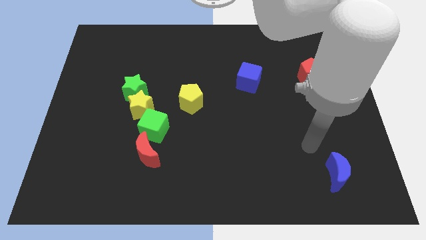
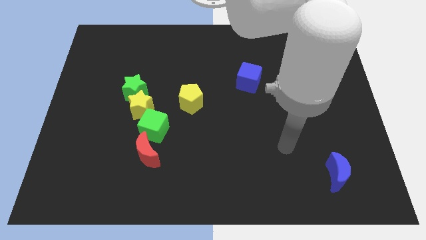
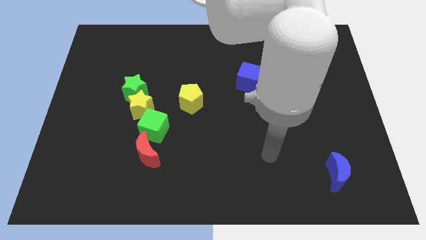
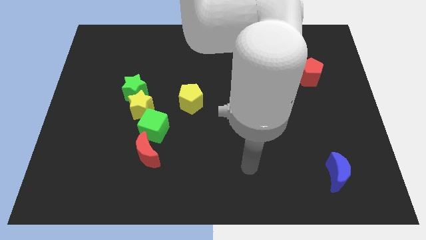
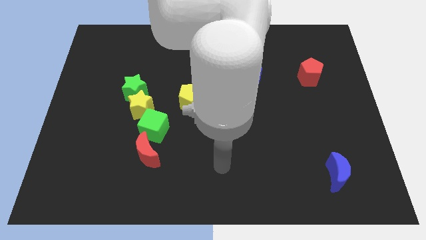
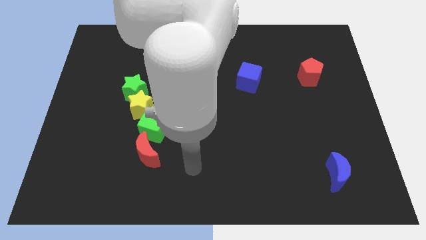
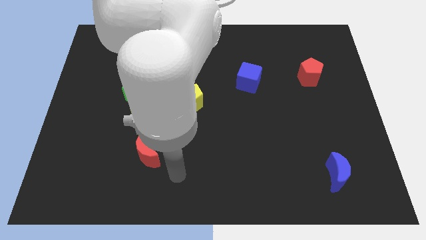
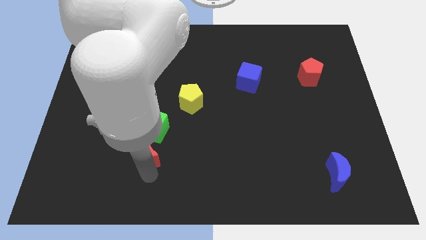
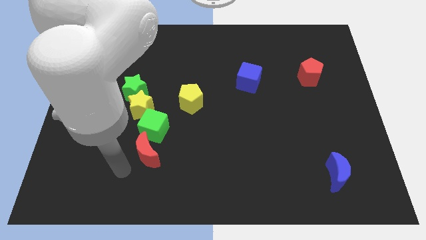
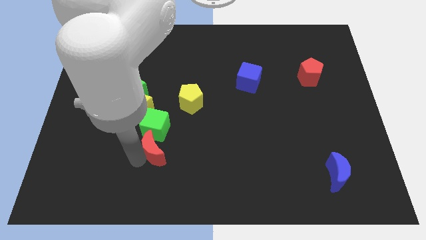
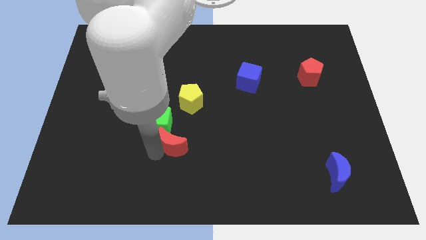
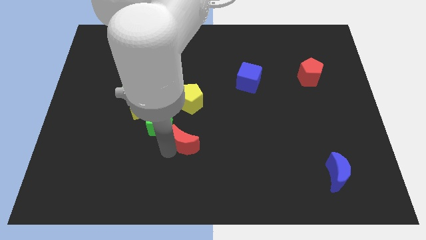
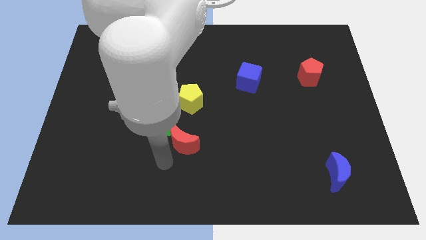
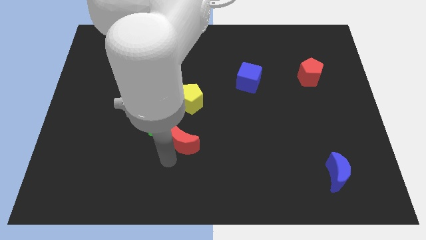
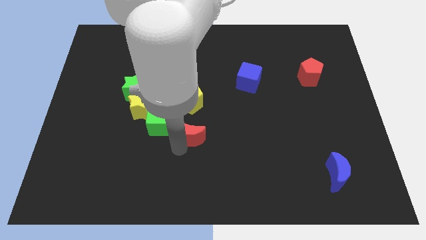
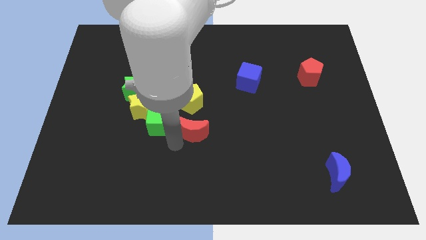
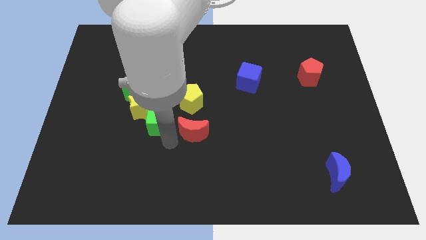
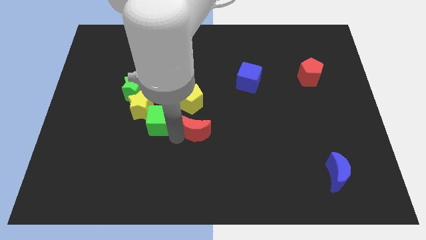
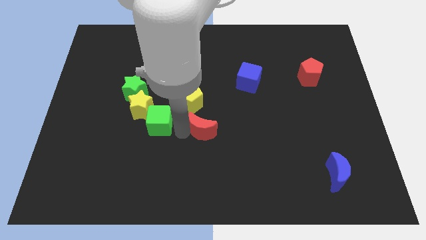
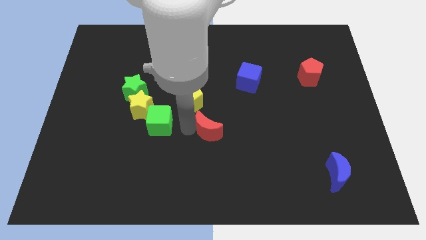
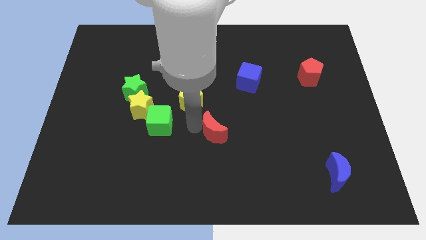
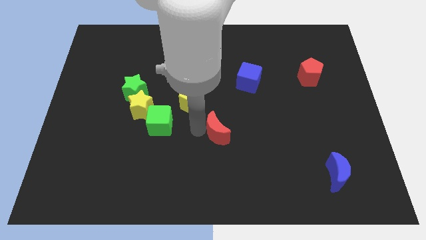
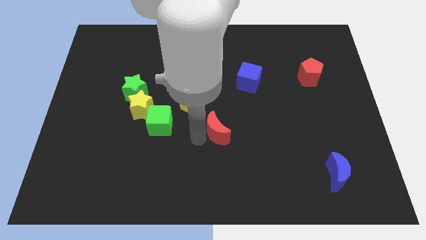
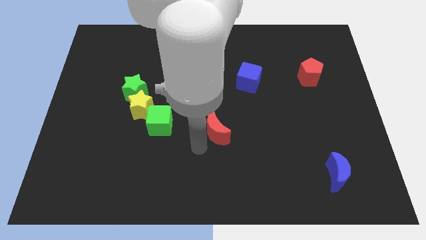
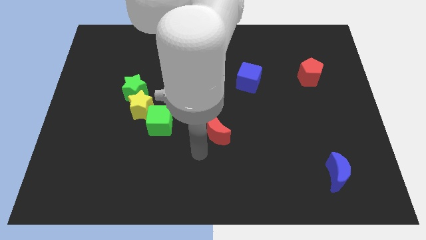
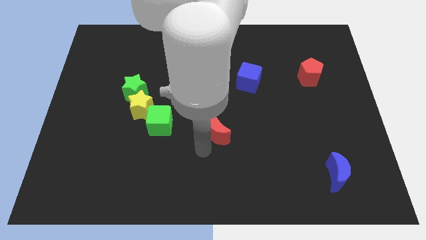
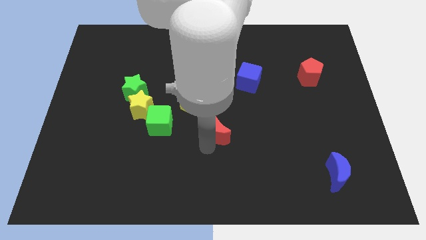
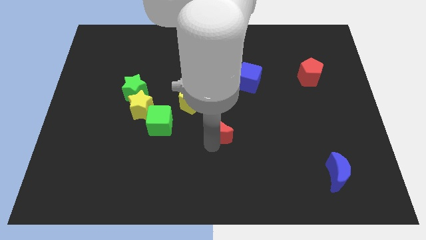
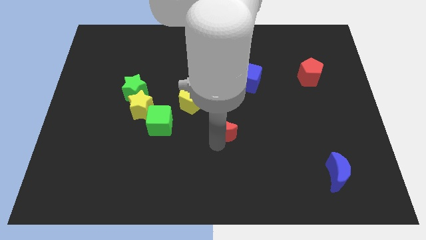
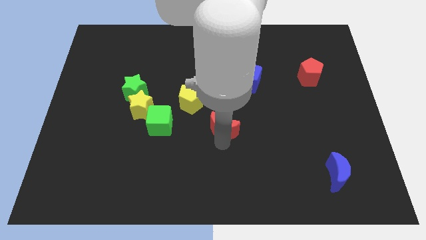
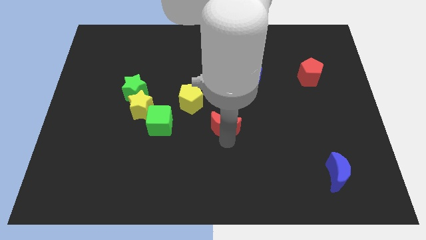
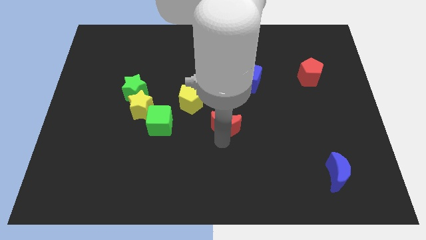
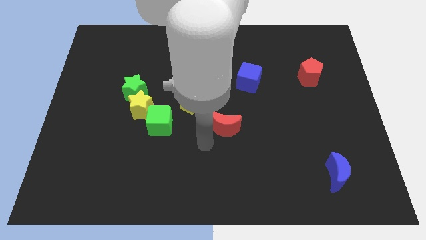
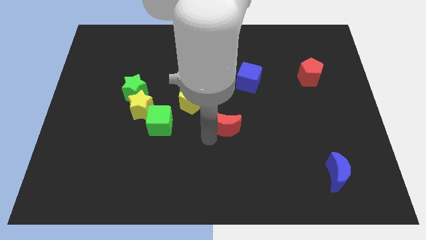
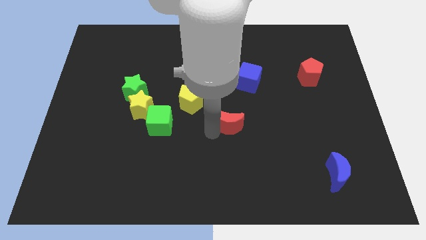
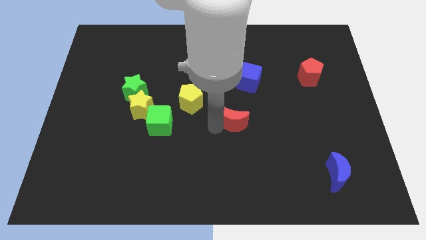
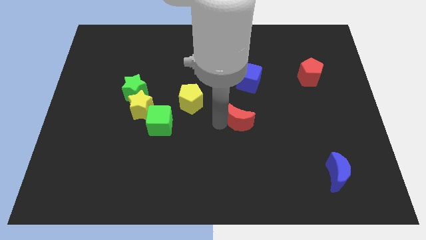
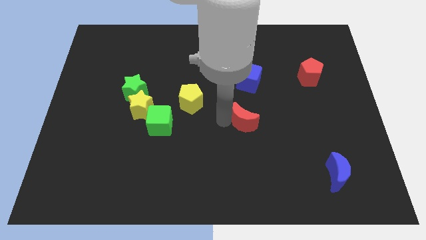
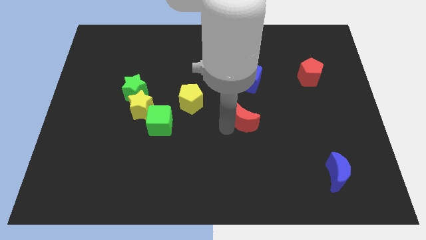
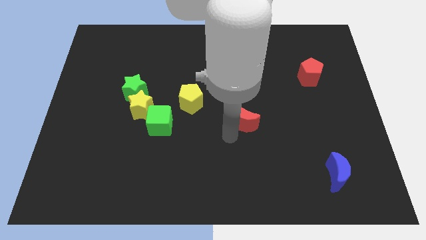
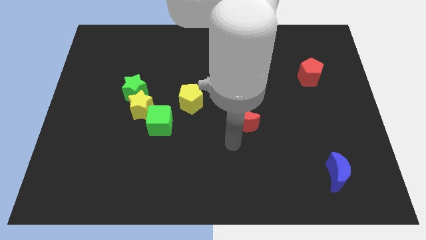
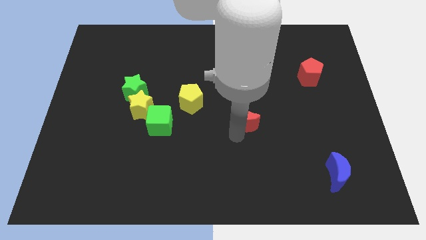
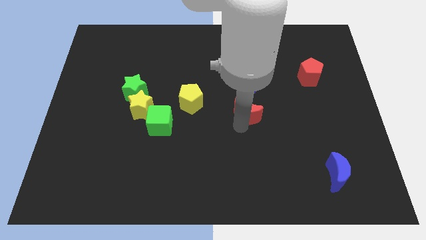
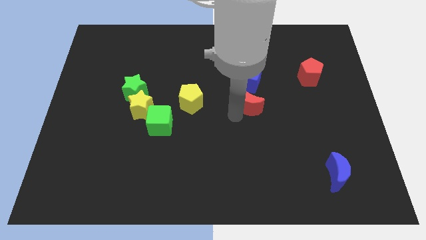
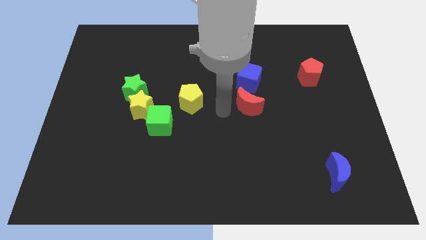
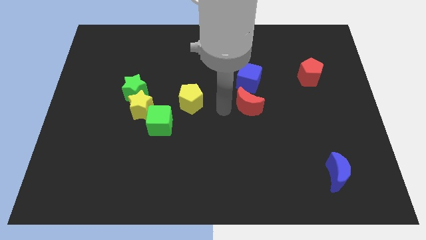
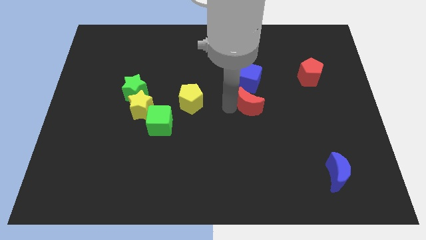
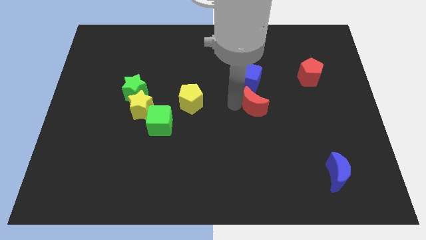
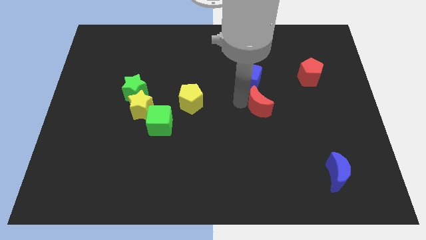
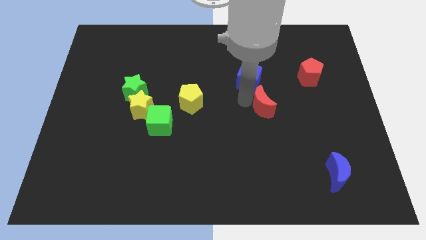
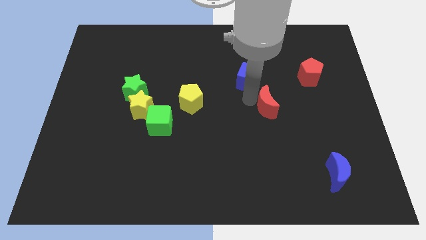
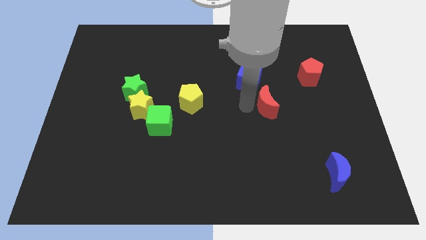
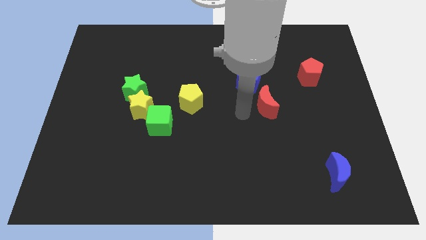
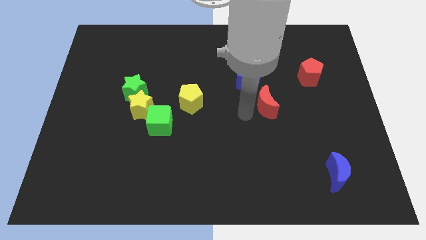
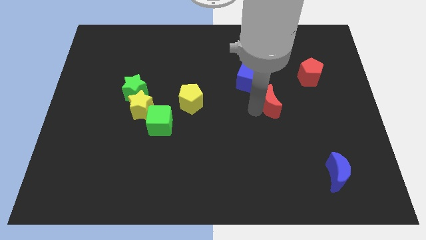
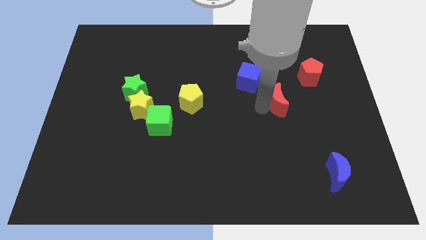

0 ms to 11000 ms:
push the red moon diagonally down and to the left of the red pentagon

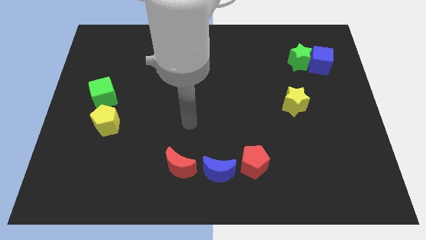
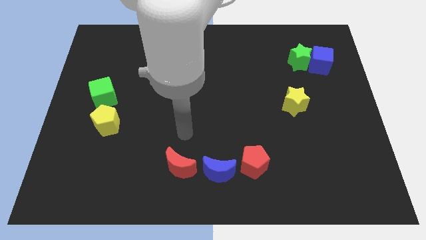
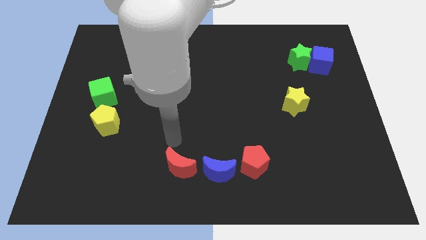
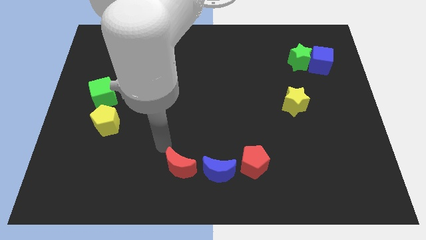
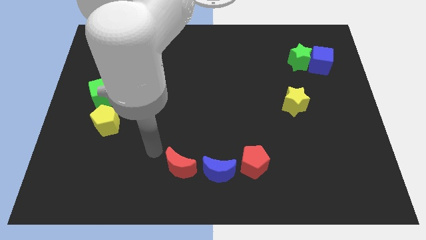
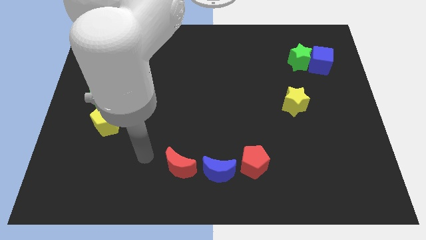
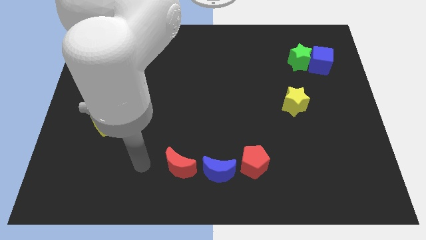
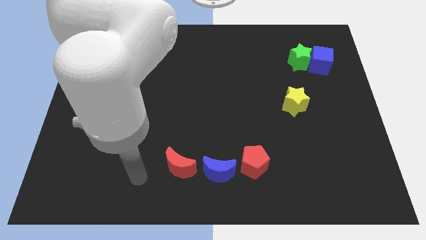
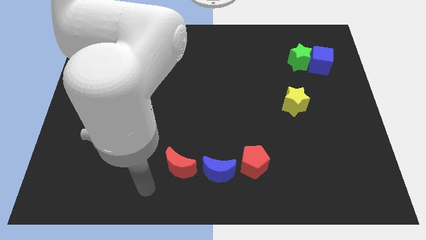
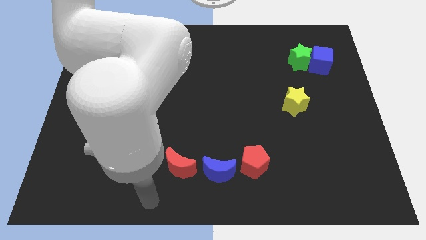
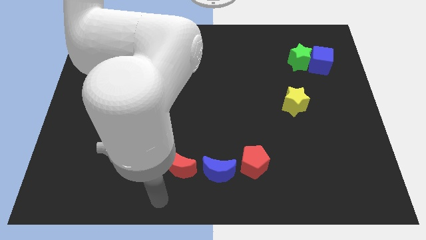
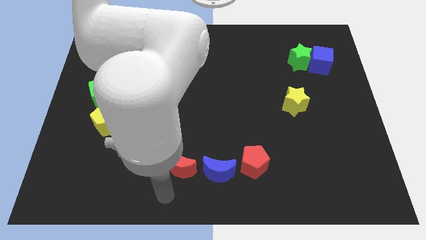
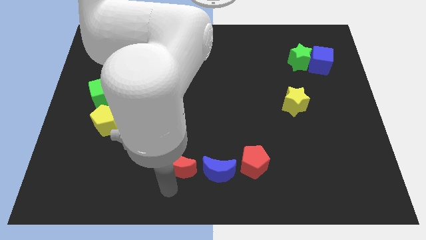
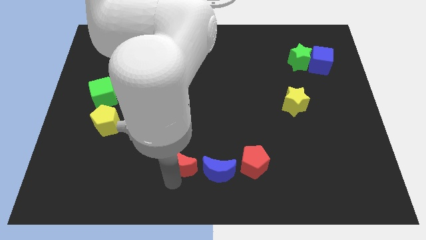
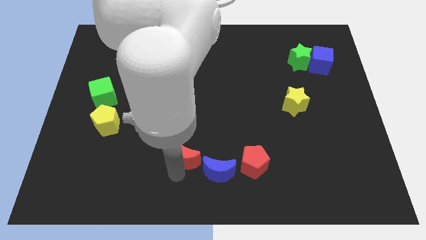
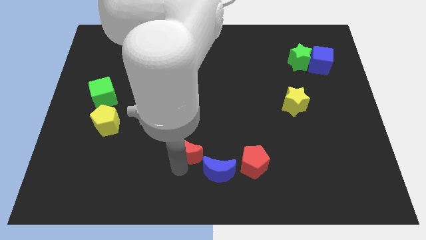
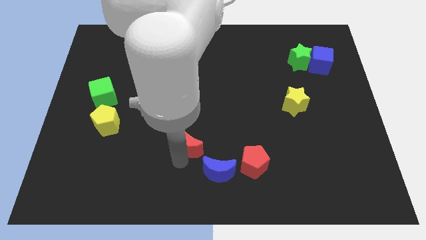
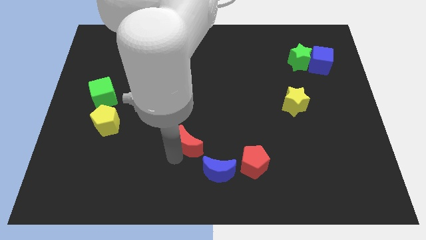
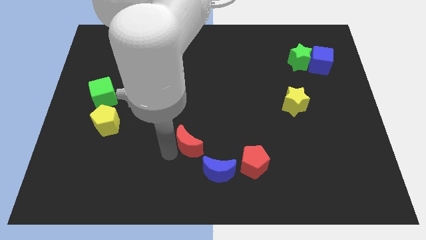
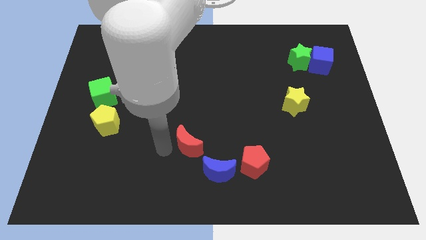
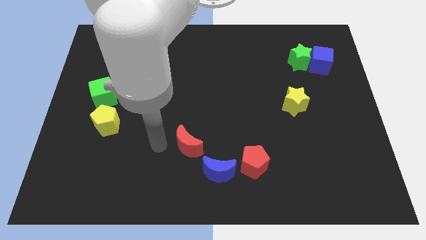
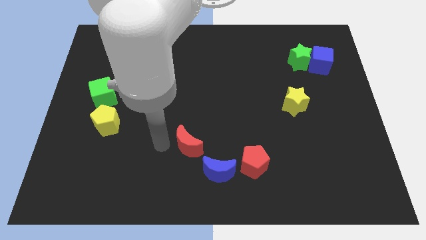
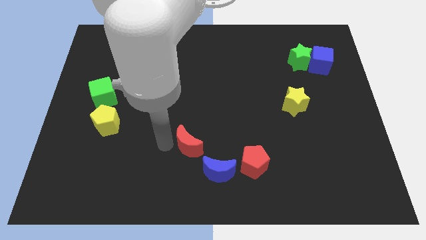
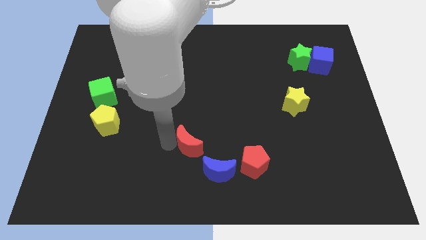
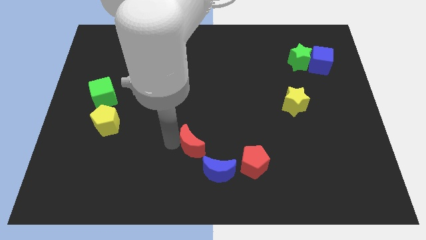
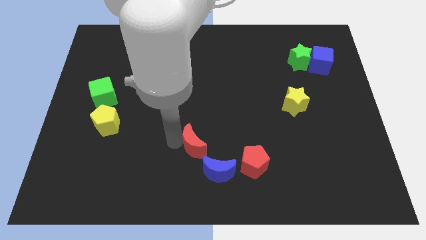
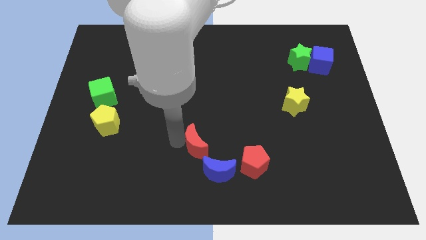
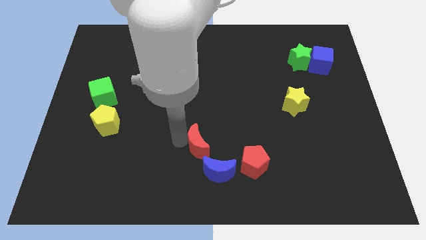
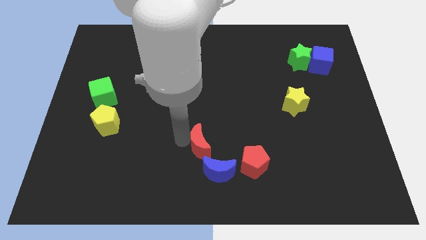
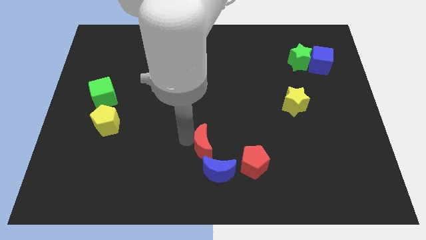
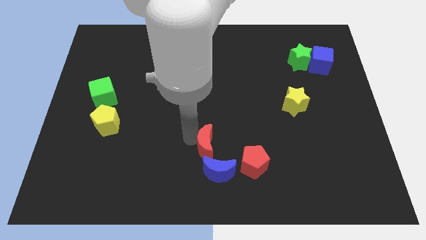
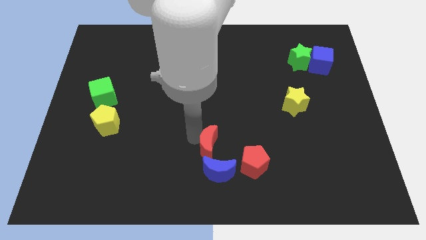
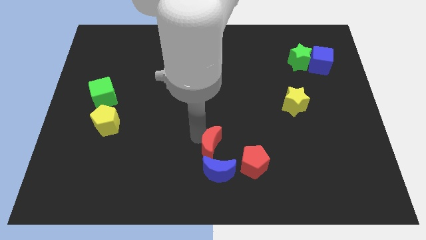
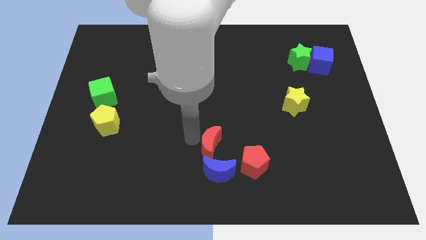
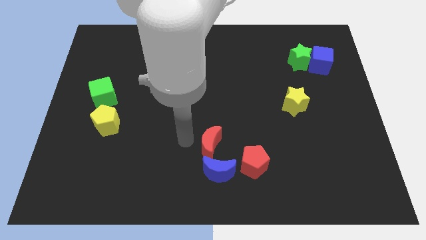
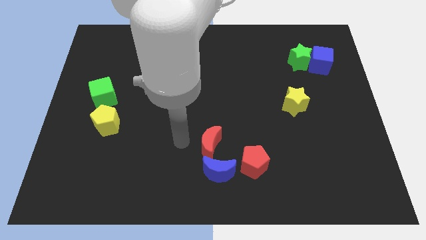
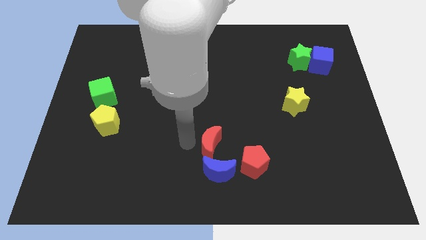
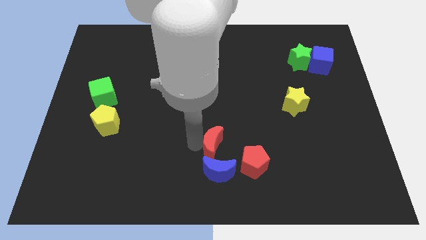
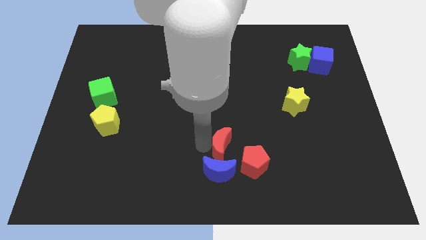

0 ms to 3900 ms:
slide the red moon to the top right of the blue moon
